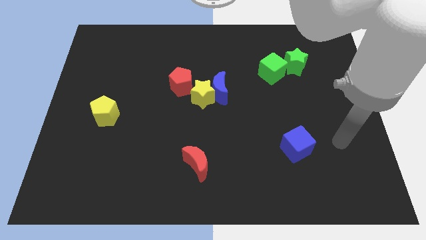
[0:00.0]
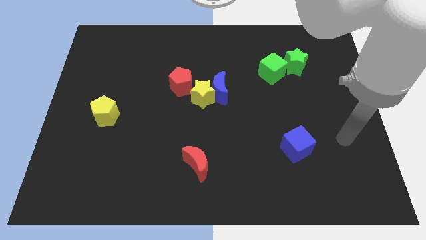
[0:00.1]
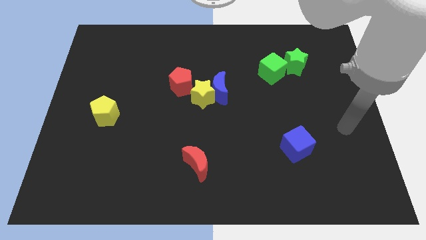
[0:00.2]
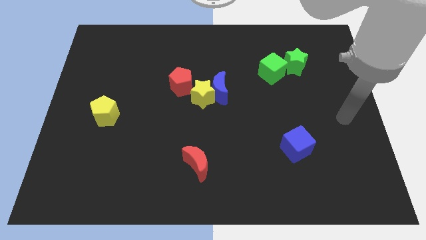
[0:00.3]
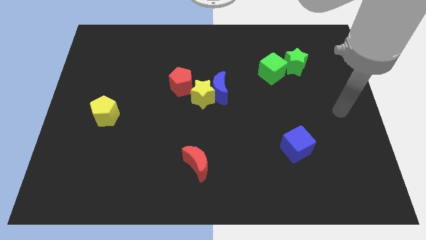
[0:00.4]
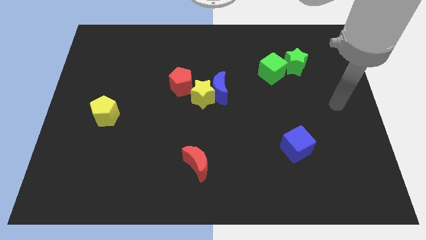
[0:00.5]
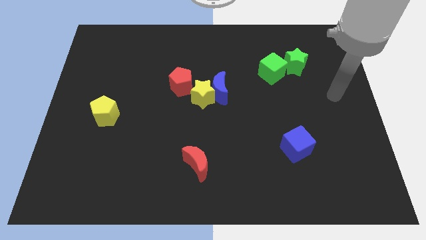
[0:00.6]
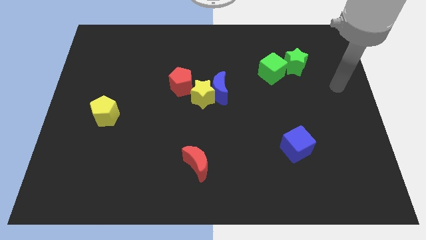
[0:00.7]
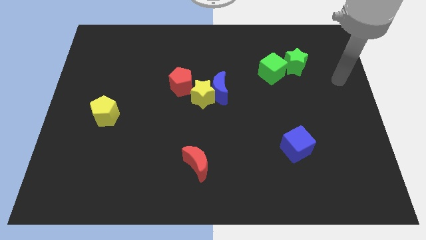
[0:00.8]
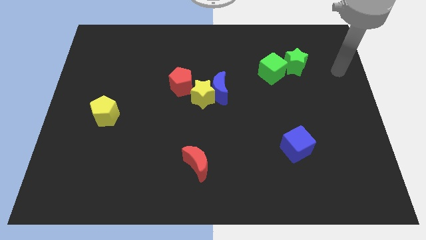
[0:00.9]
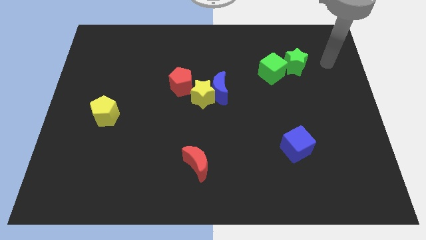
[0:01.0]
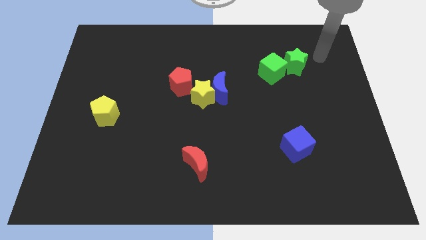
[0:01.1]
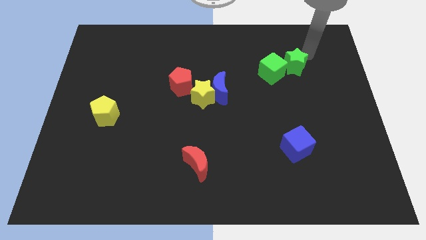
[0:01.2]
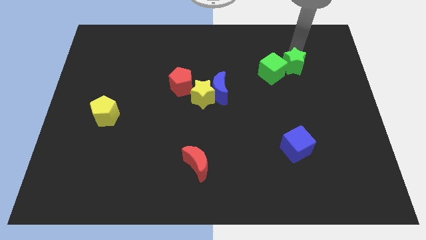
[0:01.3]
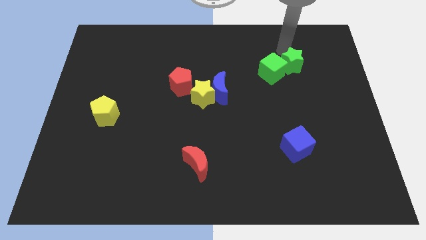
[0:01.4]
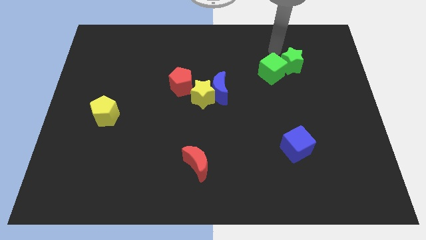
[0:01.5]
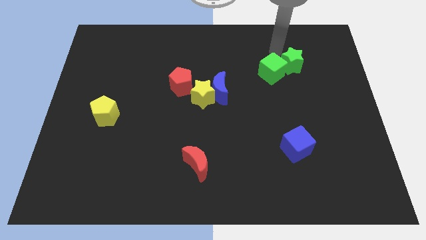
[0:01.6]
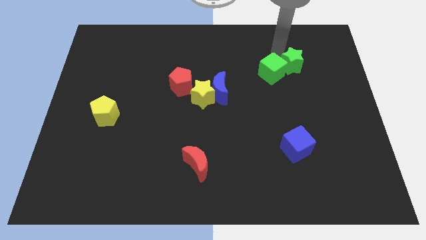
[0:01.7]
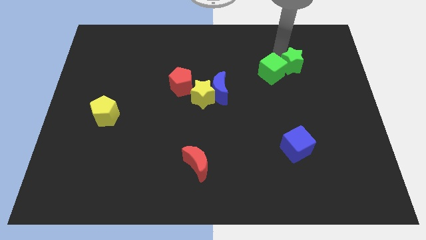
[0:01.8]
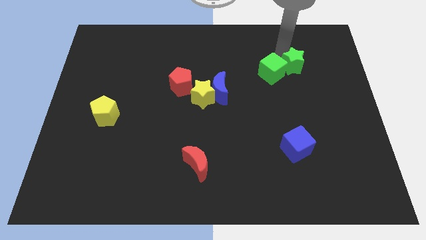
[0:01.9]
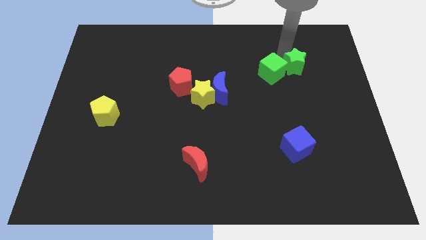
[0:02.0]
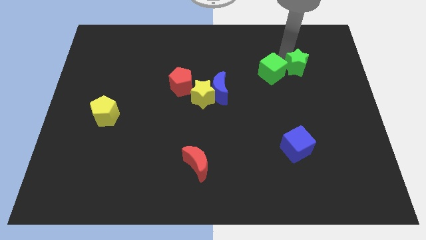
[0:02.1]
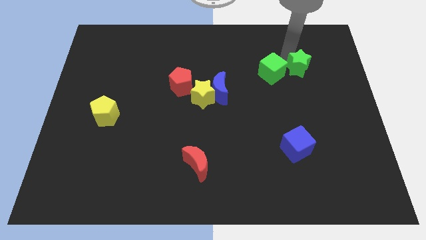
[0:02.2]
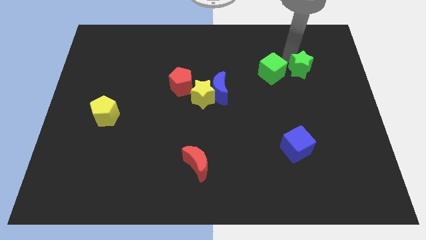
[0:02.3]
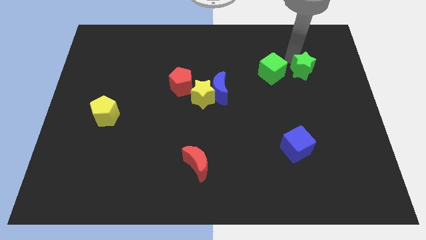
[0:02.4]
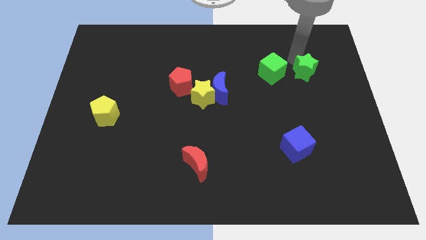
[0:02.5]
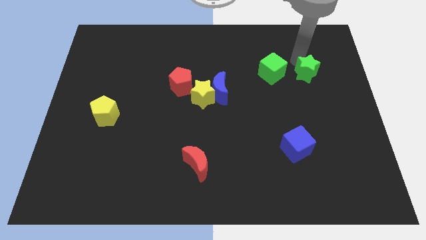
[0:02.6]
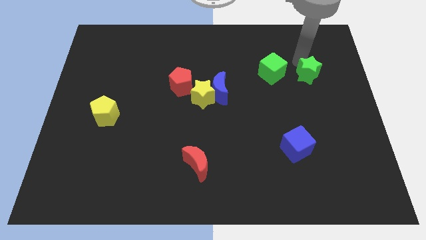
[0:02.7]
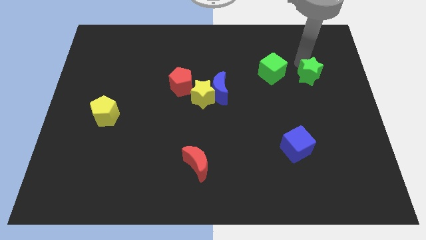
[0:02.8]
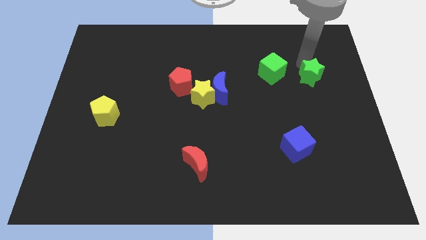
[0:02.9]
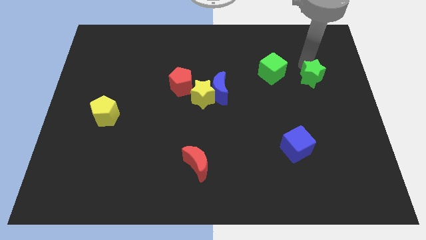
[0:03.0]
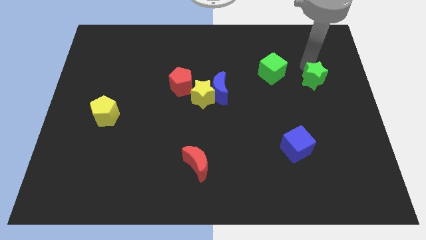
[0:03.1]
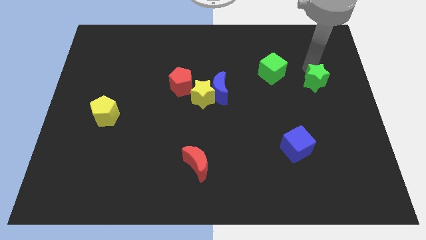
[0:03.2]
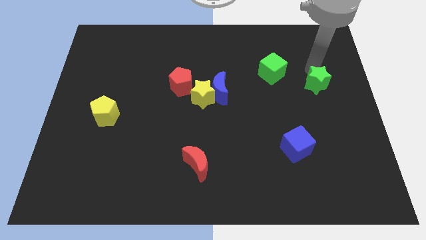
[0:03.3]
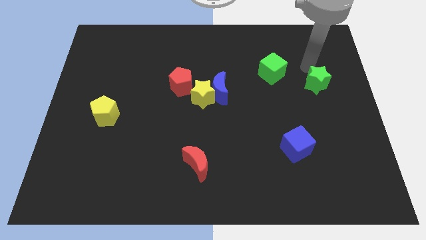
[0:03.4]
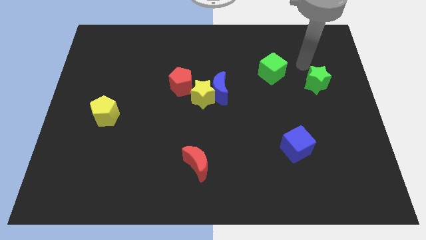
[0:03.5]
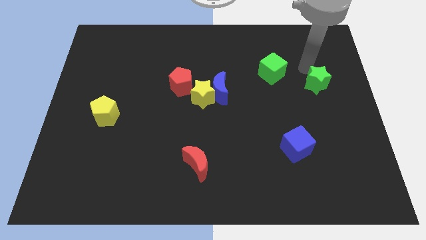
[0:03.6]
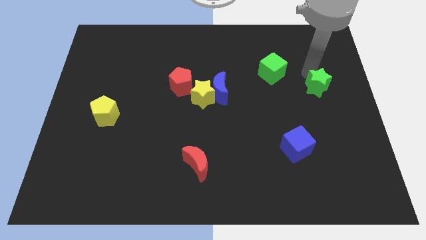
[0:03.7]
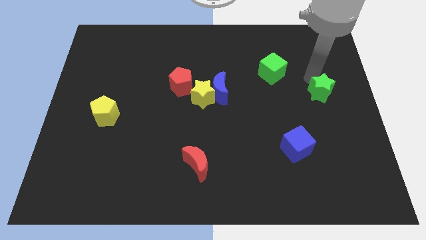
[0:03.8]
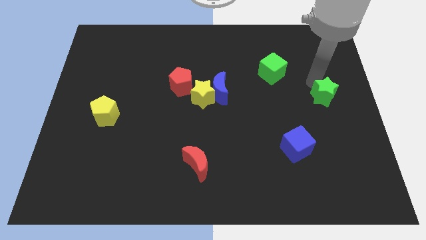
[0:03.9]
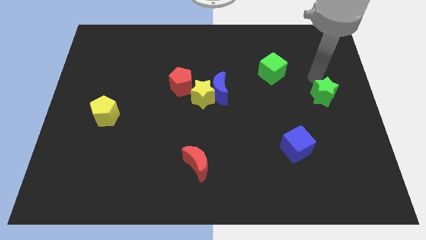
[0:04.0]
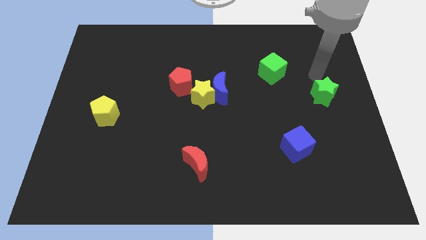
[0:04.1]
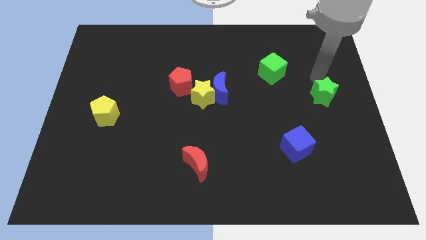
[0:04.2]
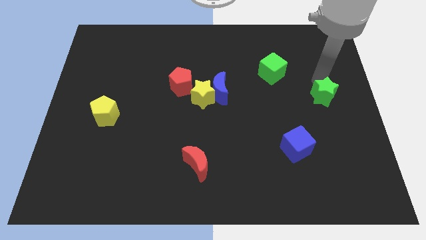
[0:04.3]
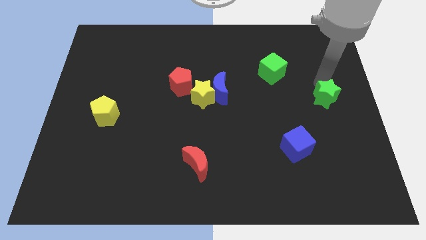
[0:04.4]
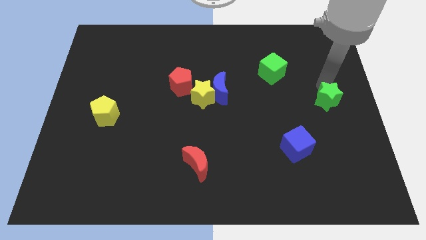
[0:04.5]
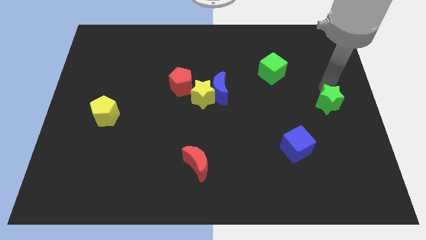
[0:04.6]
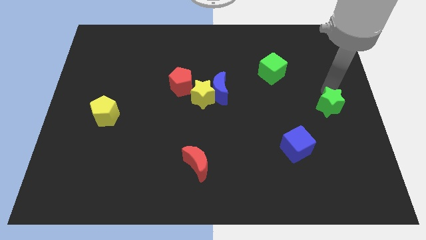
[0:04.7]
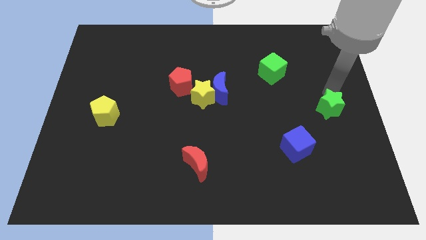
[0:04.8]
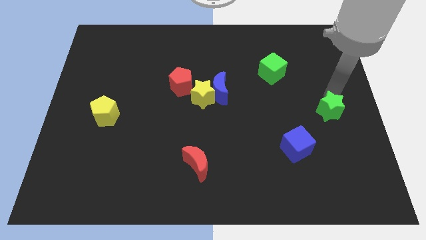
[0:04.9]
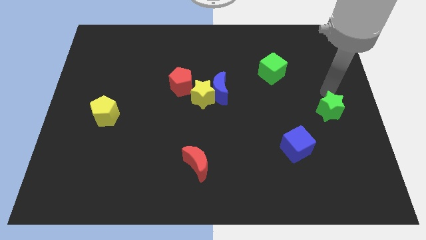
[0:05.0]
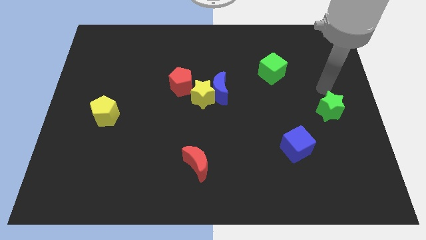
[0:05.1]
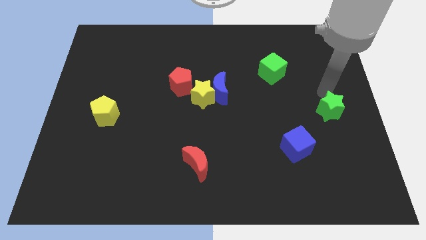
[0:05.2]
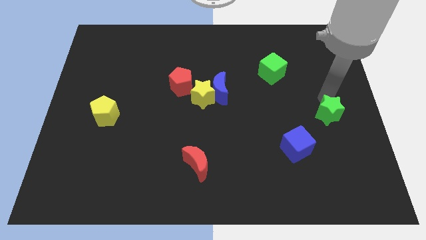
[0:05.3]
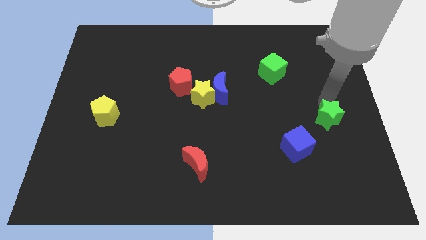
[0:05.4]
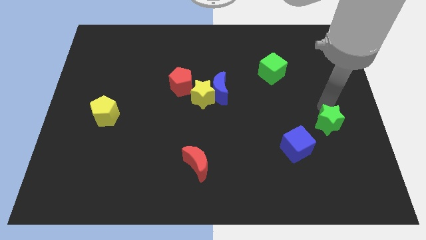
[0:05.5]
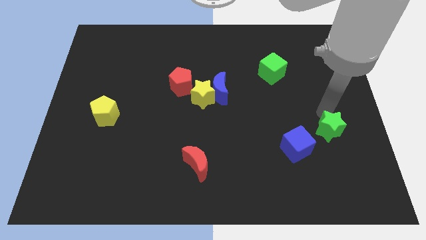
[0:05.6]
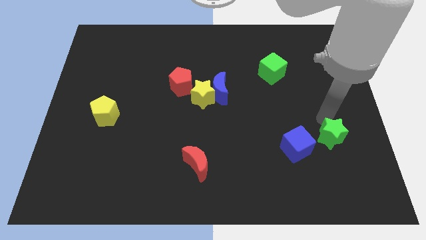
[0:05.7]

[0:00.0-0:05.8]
push the green star down

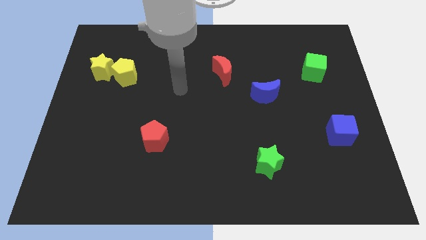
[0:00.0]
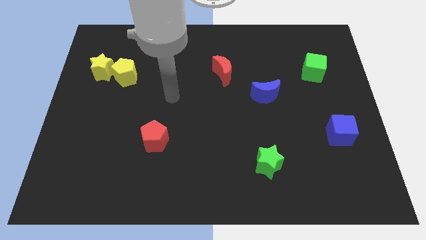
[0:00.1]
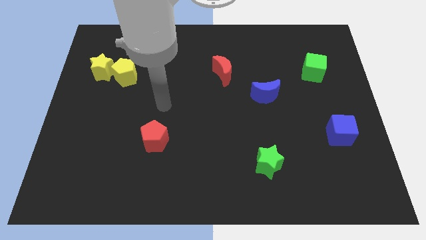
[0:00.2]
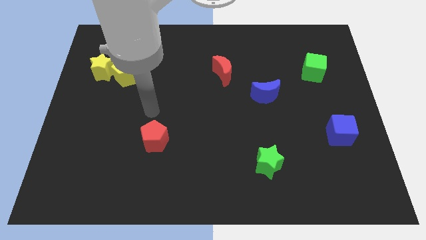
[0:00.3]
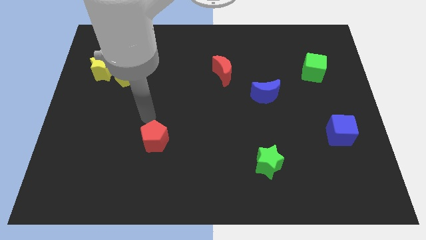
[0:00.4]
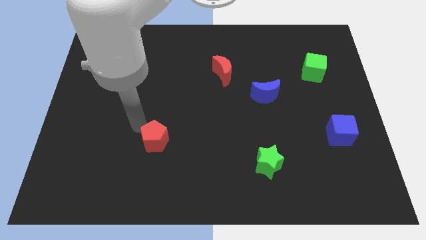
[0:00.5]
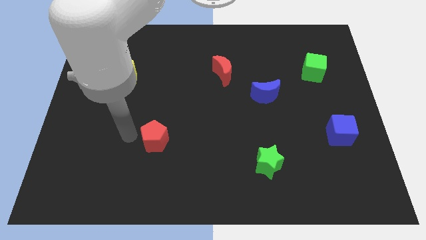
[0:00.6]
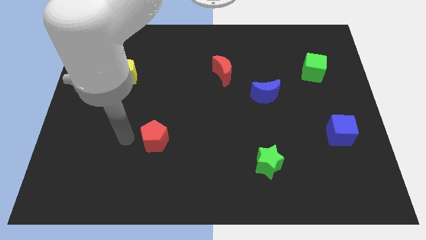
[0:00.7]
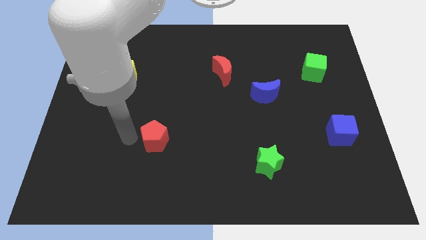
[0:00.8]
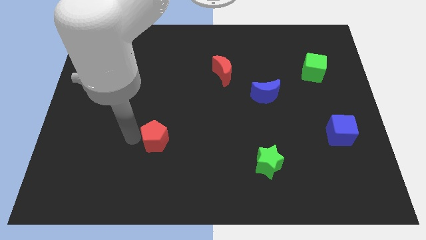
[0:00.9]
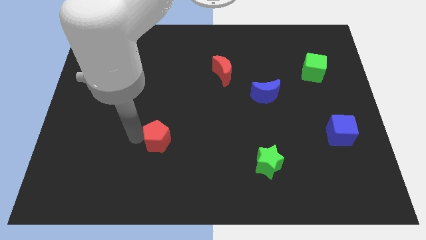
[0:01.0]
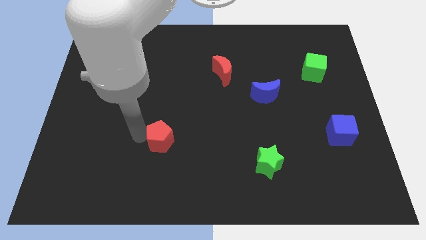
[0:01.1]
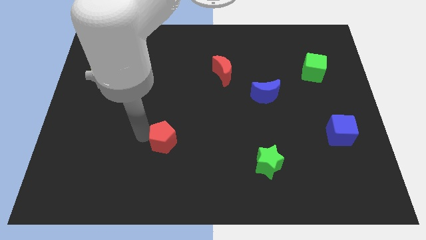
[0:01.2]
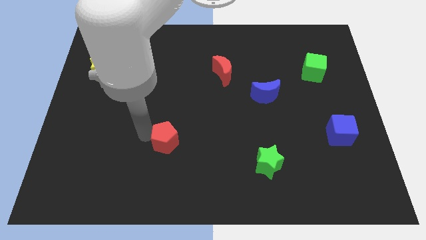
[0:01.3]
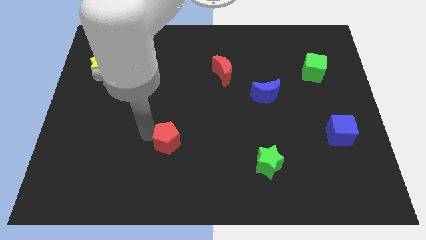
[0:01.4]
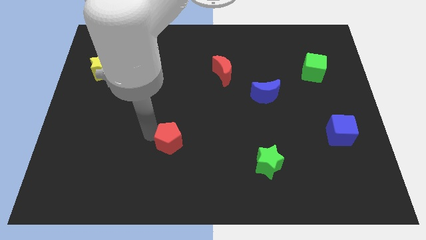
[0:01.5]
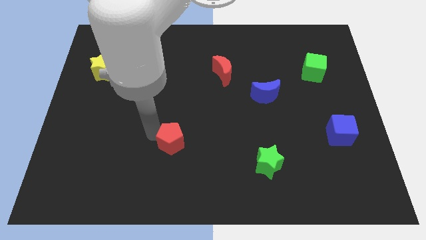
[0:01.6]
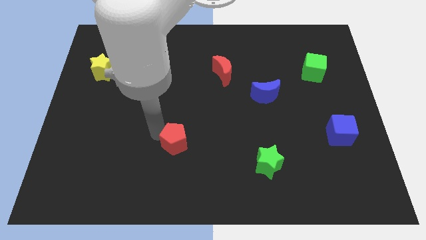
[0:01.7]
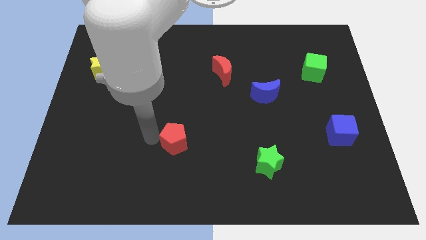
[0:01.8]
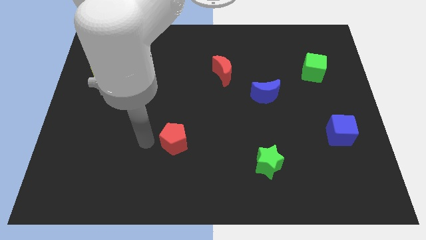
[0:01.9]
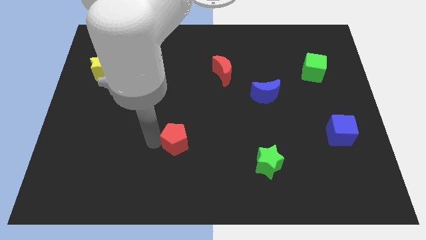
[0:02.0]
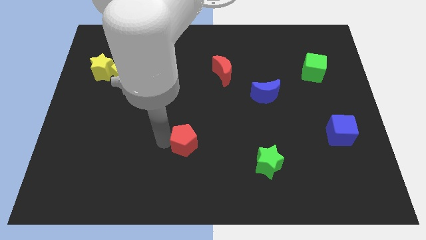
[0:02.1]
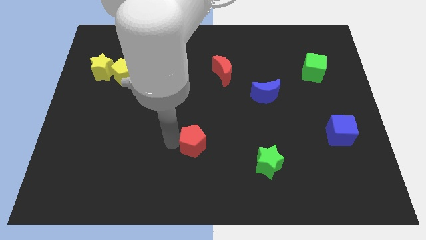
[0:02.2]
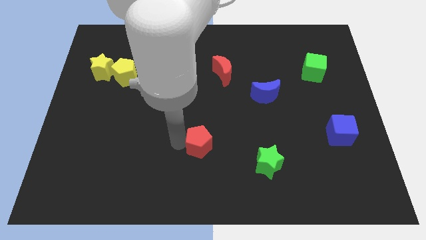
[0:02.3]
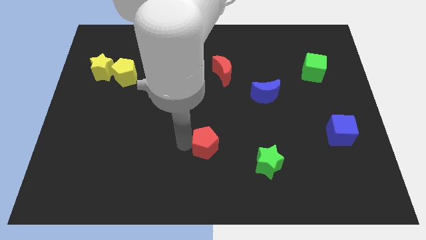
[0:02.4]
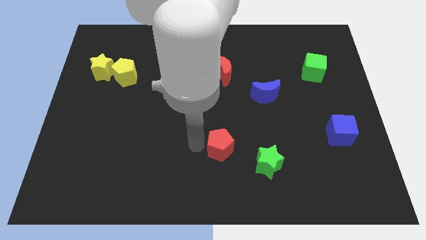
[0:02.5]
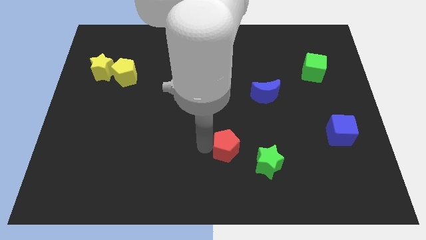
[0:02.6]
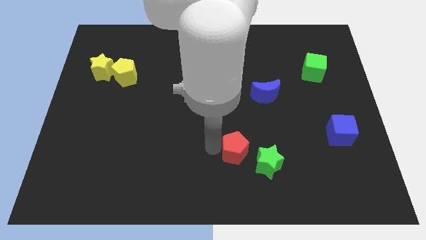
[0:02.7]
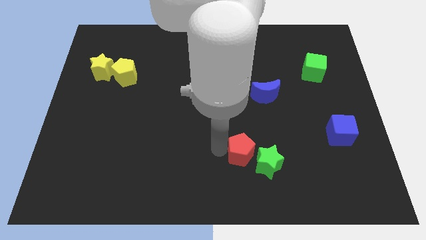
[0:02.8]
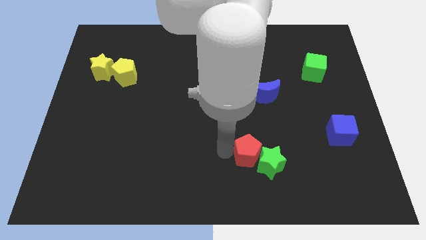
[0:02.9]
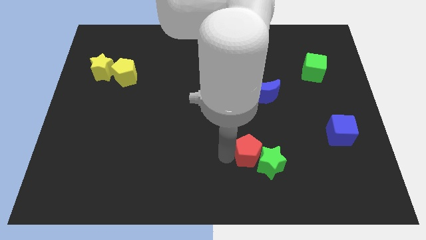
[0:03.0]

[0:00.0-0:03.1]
move the red pentagon right
